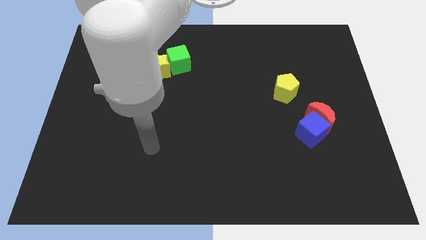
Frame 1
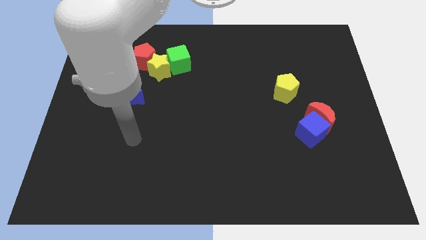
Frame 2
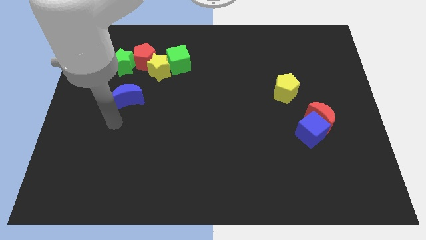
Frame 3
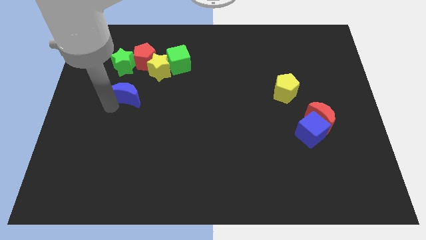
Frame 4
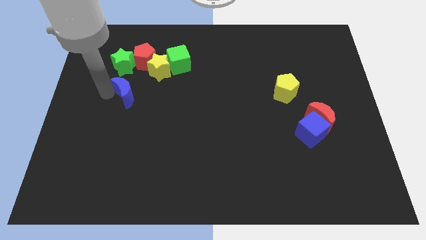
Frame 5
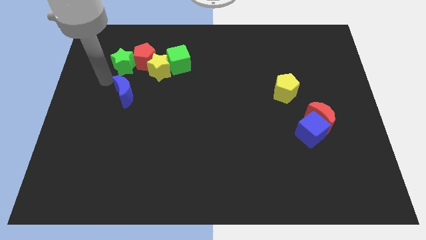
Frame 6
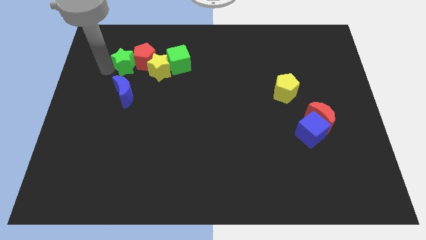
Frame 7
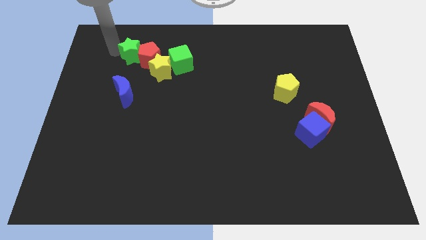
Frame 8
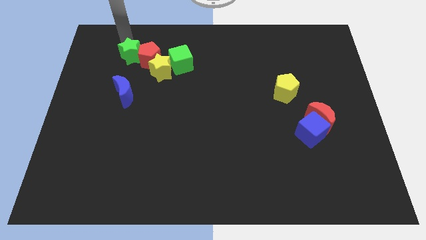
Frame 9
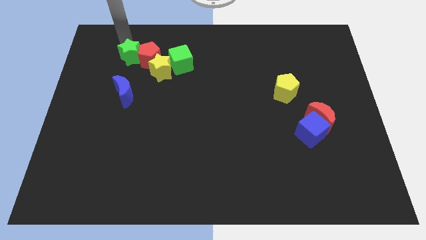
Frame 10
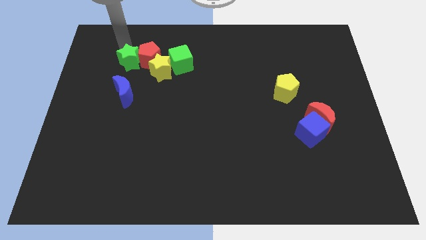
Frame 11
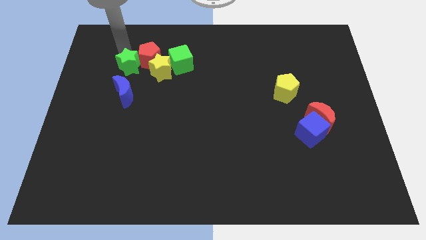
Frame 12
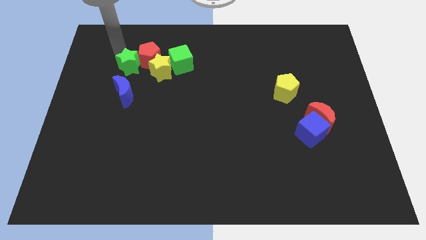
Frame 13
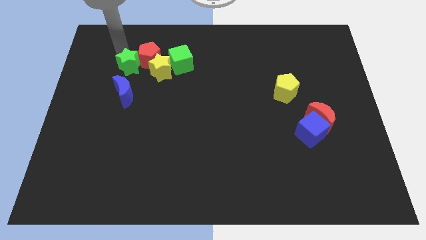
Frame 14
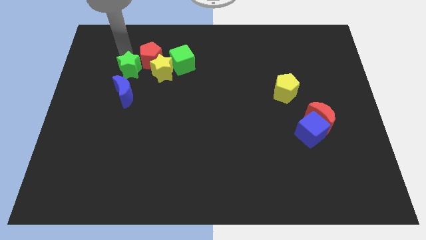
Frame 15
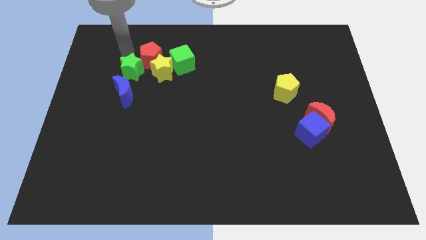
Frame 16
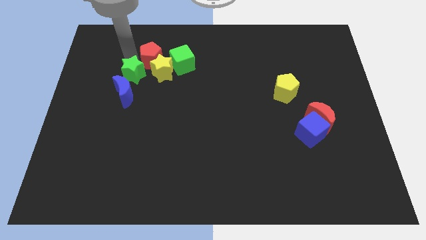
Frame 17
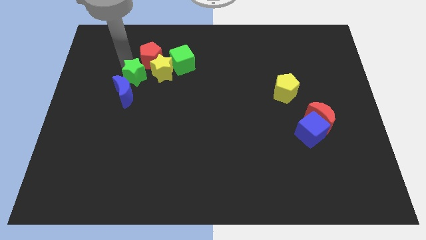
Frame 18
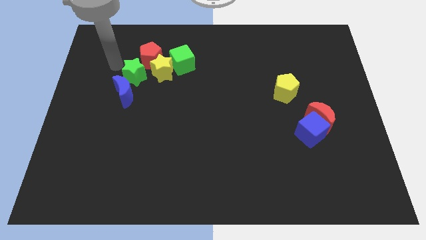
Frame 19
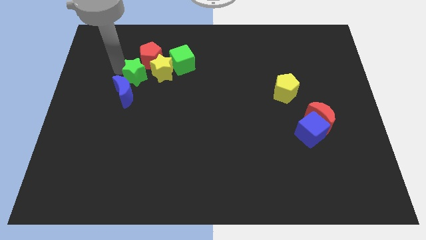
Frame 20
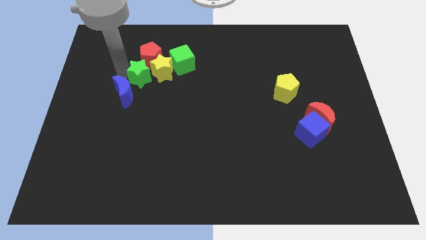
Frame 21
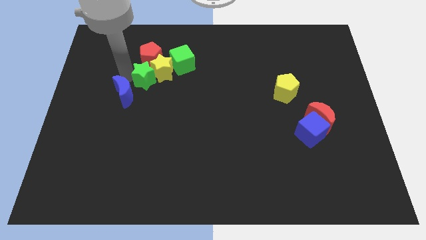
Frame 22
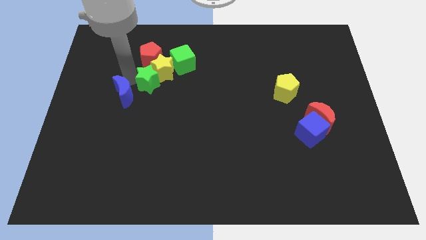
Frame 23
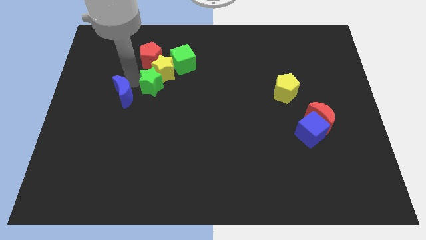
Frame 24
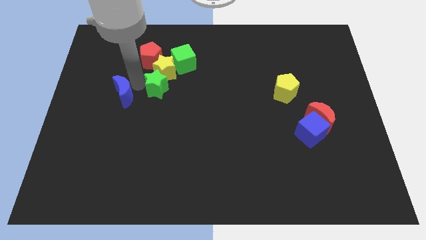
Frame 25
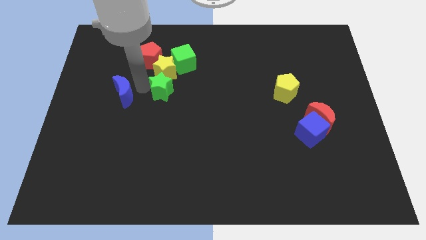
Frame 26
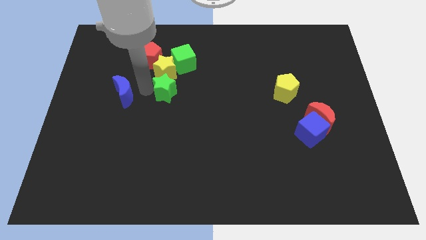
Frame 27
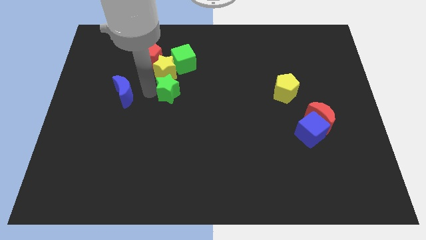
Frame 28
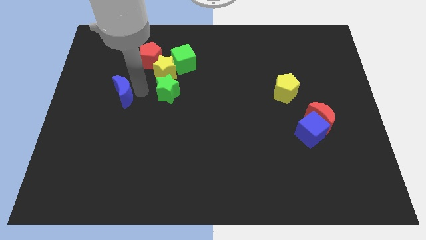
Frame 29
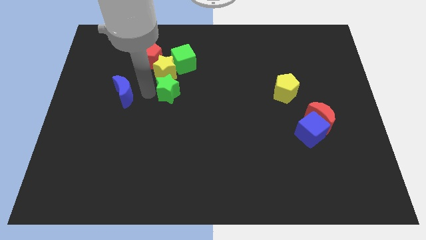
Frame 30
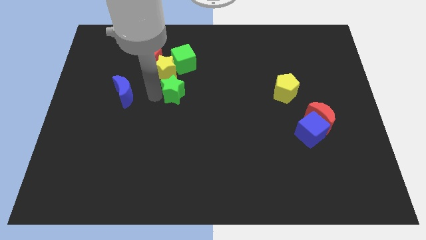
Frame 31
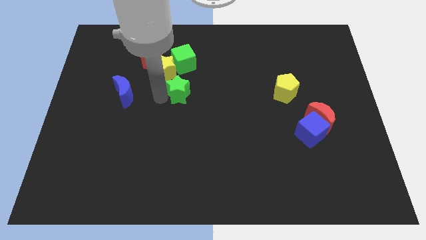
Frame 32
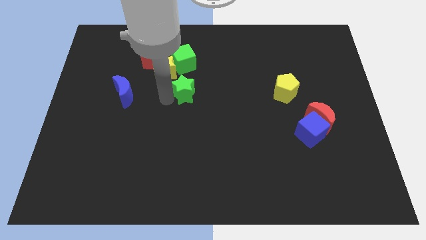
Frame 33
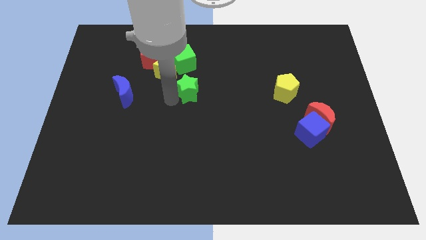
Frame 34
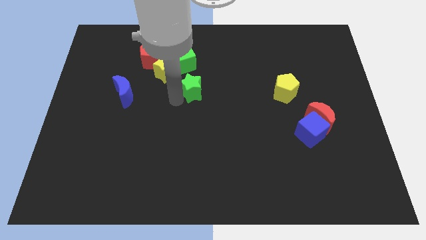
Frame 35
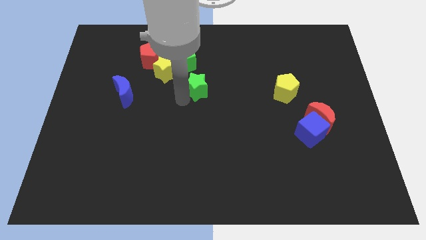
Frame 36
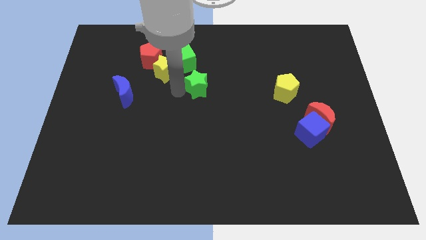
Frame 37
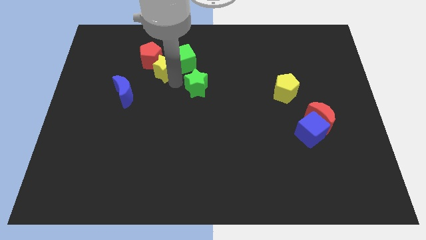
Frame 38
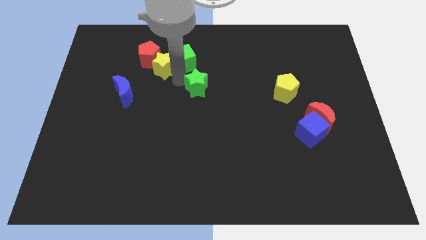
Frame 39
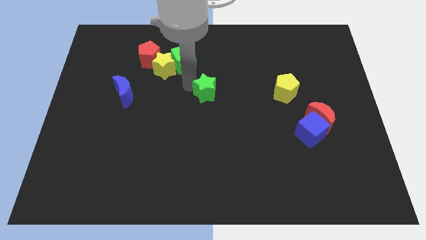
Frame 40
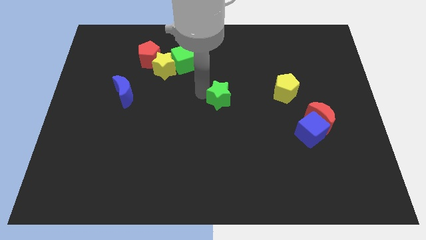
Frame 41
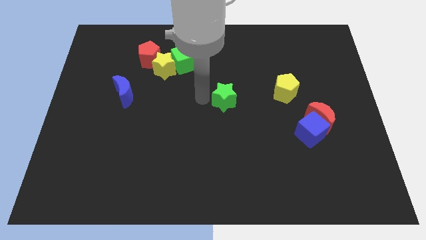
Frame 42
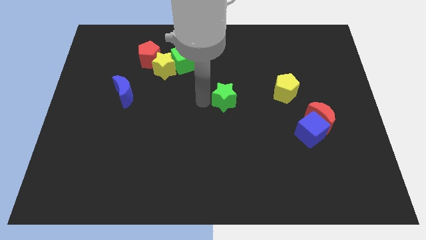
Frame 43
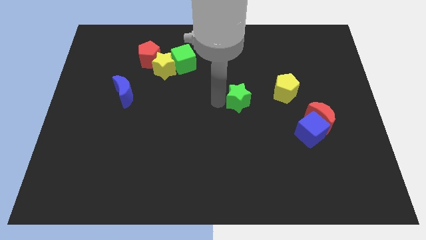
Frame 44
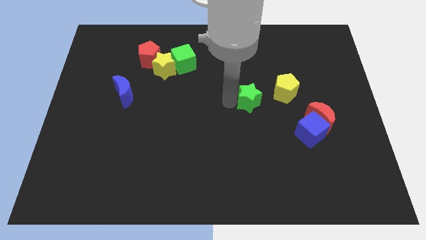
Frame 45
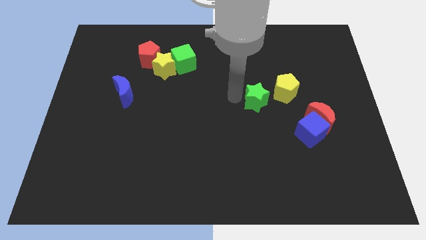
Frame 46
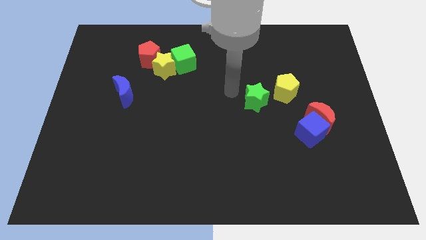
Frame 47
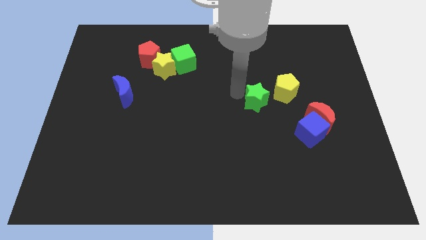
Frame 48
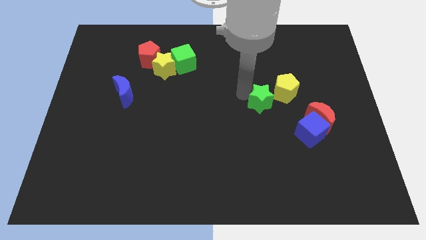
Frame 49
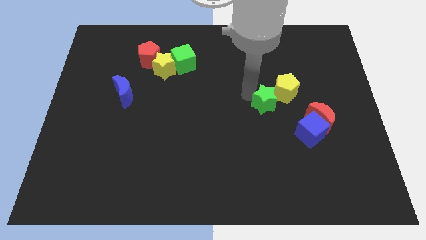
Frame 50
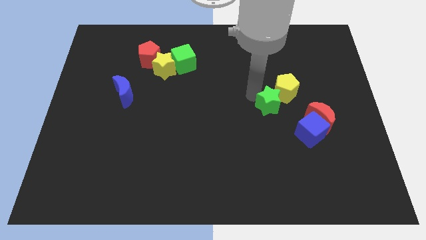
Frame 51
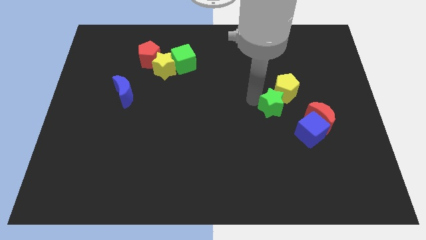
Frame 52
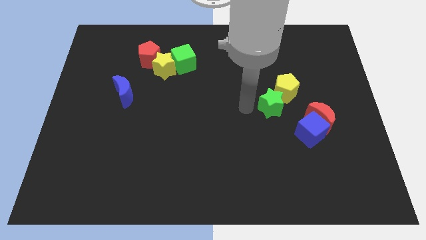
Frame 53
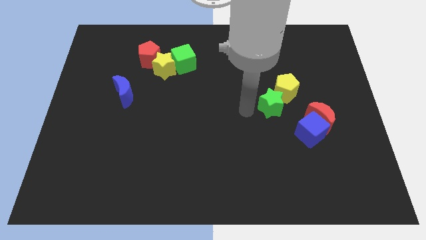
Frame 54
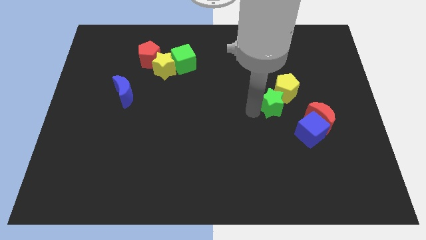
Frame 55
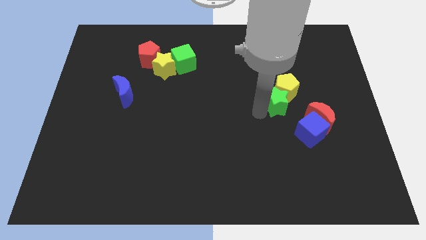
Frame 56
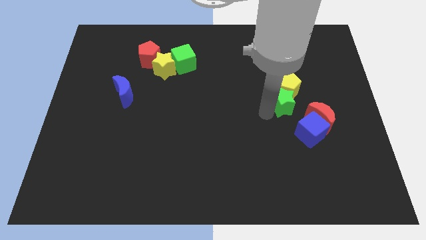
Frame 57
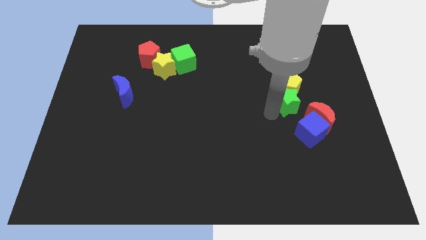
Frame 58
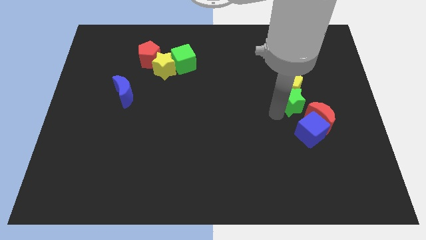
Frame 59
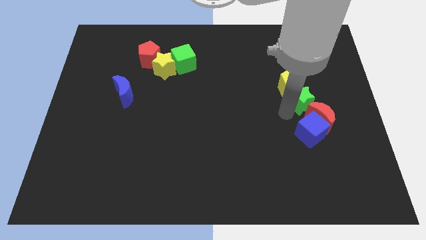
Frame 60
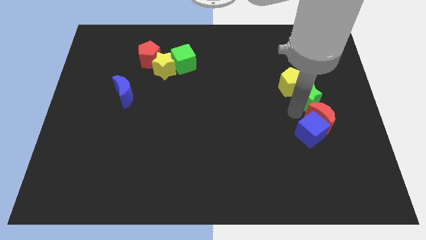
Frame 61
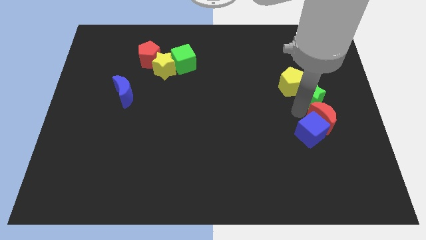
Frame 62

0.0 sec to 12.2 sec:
slide the green star to the right side of the yellow pentagon

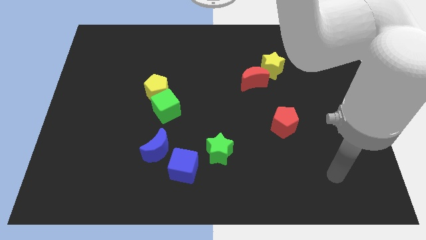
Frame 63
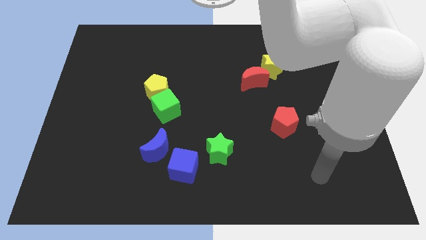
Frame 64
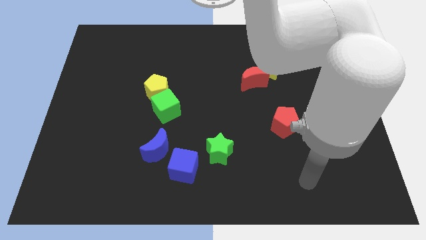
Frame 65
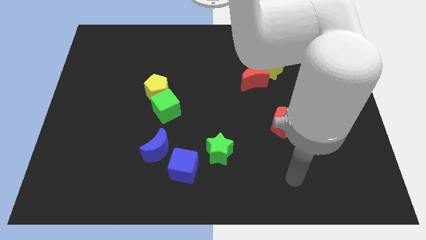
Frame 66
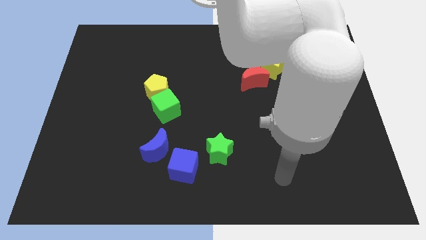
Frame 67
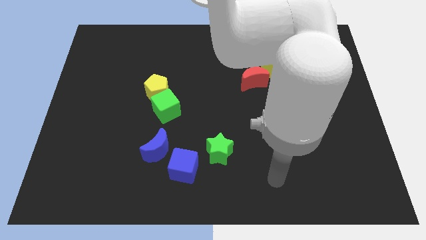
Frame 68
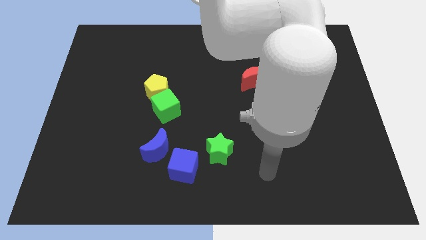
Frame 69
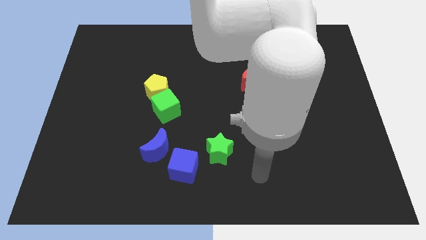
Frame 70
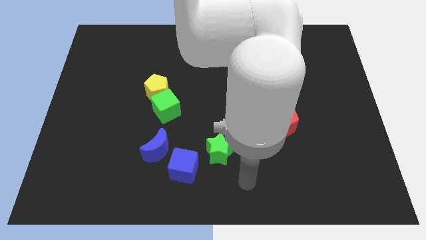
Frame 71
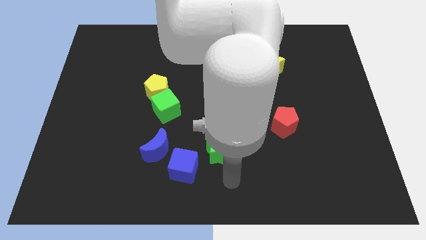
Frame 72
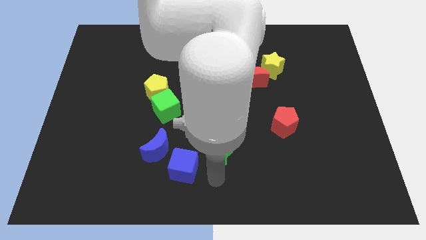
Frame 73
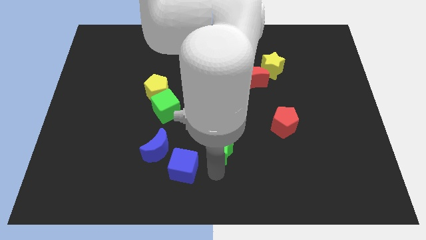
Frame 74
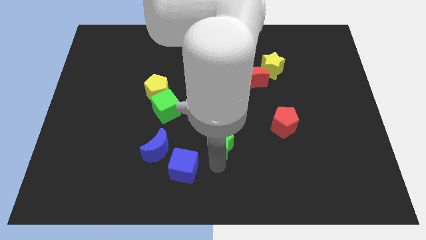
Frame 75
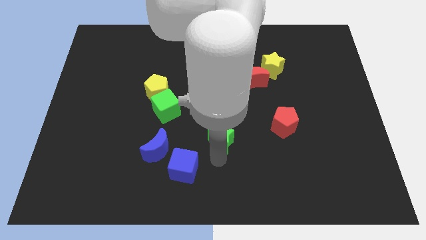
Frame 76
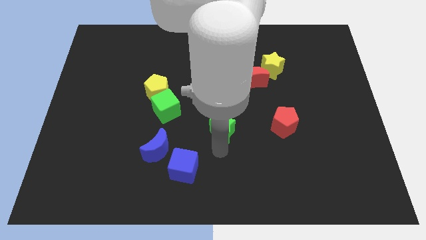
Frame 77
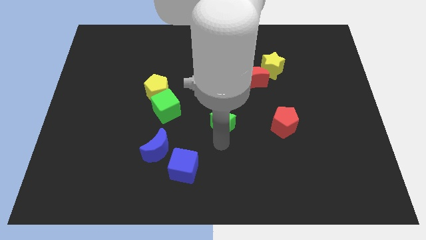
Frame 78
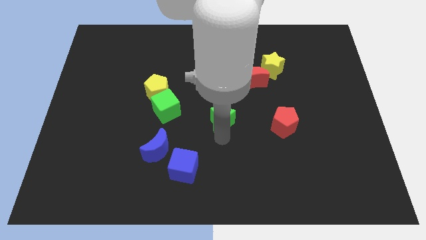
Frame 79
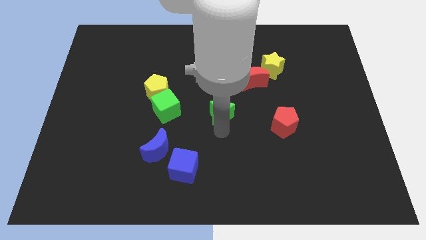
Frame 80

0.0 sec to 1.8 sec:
put the green star diagonally down and to the left of the red moon
